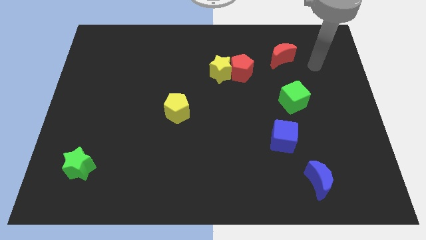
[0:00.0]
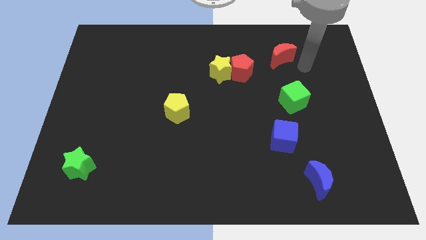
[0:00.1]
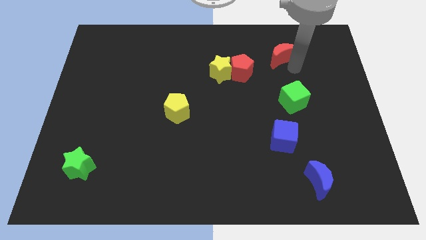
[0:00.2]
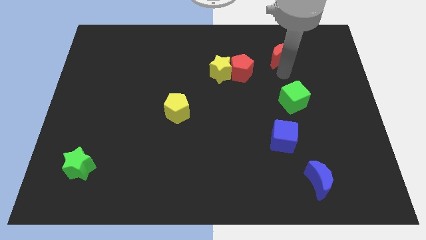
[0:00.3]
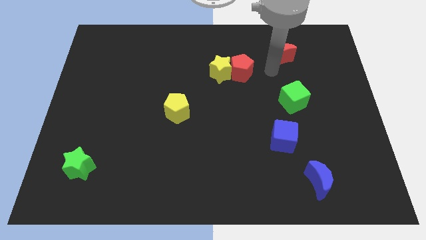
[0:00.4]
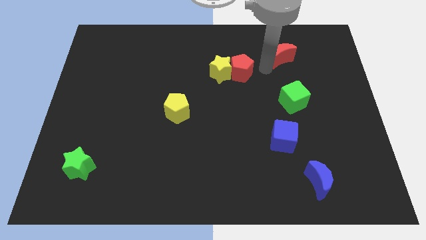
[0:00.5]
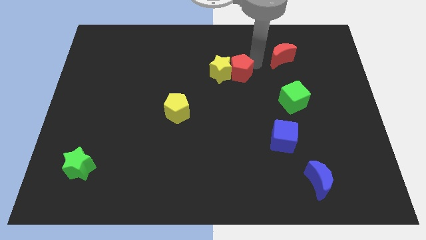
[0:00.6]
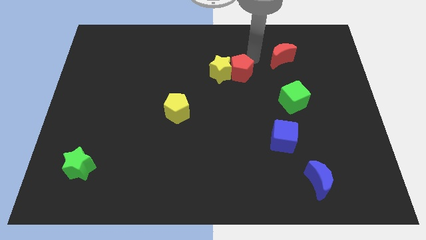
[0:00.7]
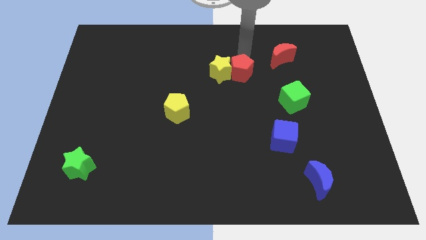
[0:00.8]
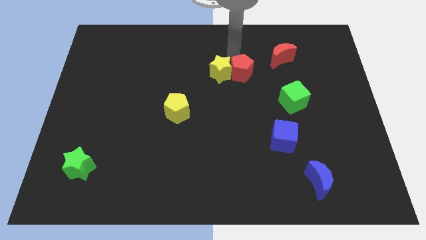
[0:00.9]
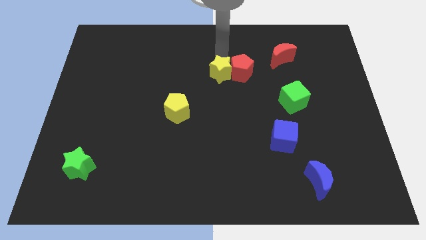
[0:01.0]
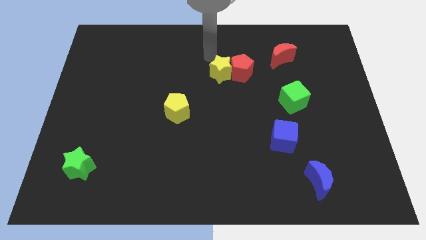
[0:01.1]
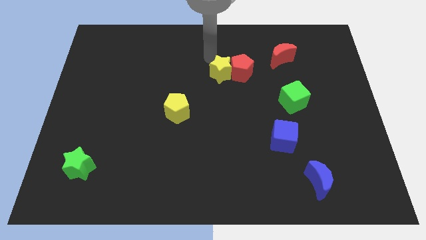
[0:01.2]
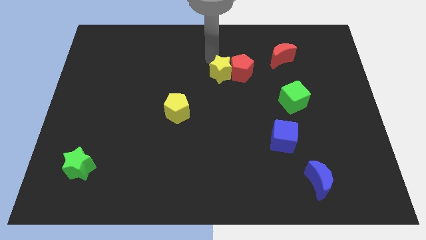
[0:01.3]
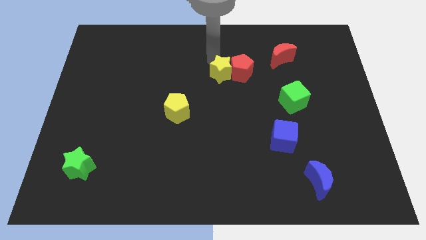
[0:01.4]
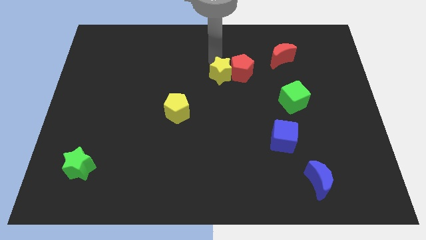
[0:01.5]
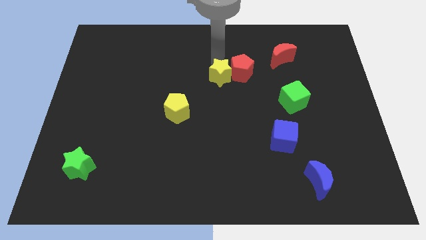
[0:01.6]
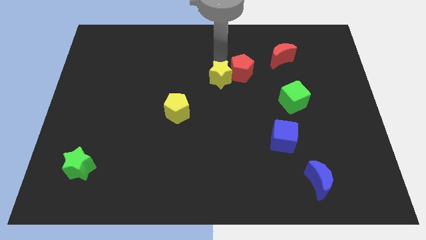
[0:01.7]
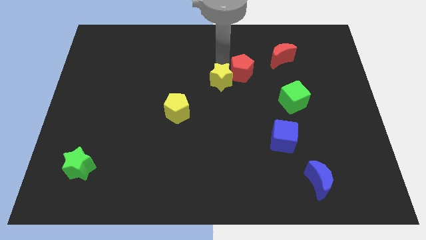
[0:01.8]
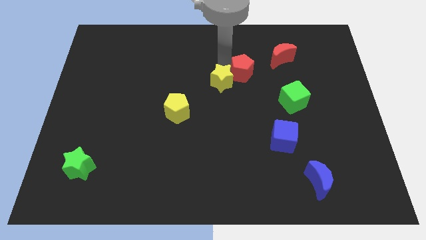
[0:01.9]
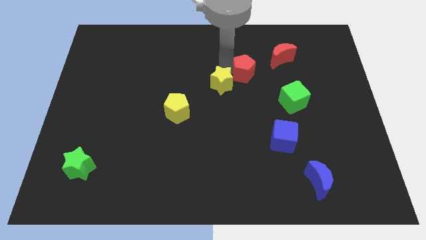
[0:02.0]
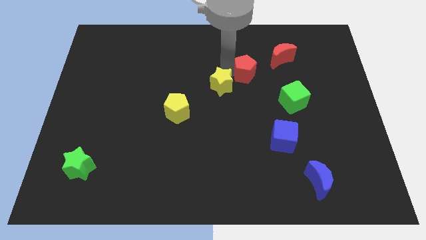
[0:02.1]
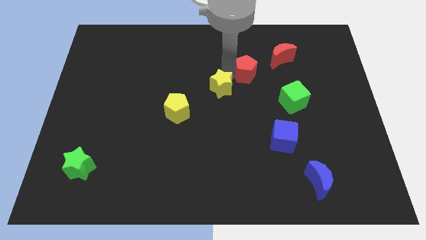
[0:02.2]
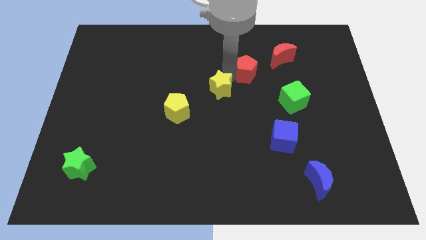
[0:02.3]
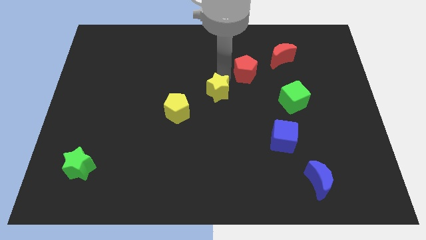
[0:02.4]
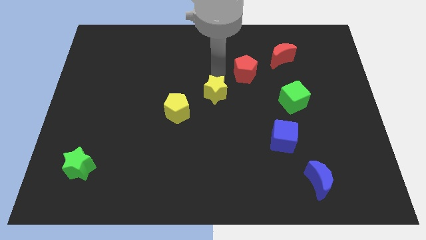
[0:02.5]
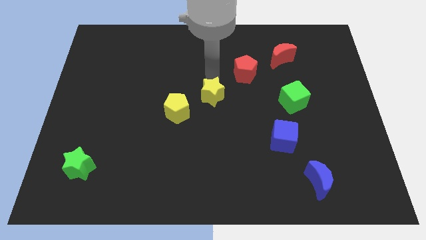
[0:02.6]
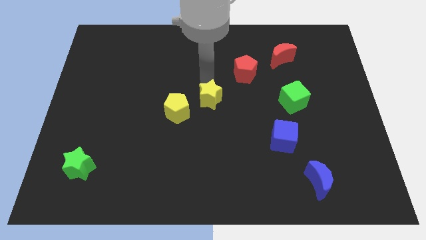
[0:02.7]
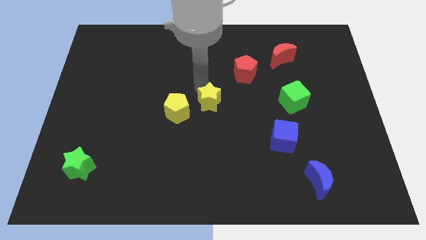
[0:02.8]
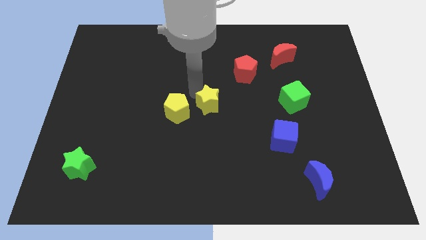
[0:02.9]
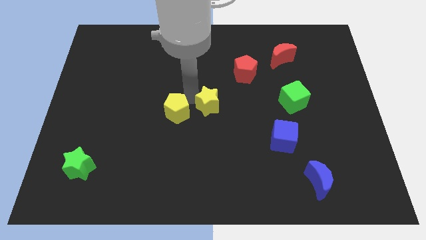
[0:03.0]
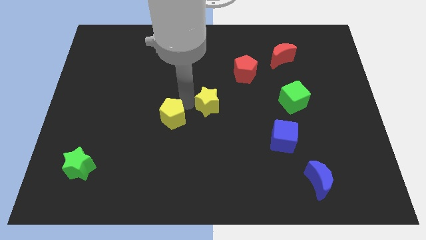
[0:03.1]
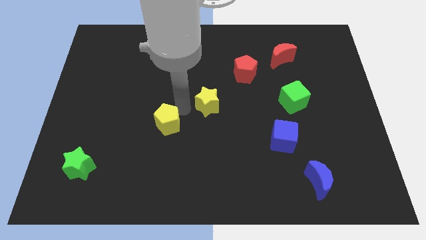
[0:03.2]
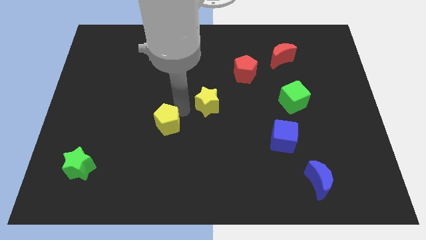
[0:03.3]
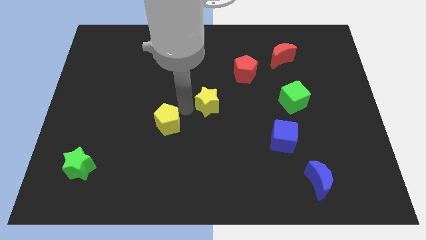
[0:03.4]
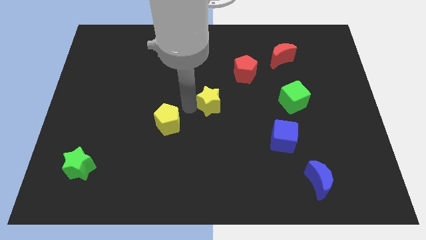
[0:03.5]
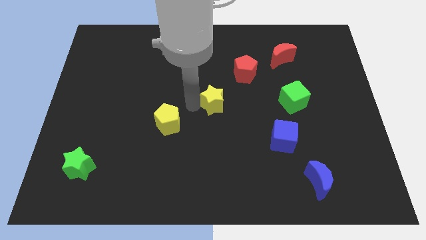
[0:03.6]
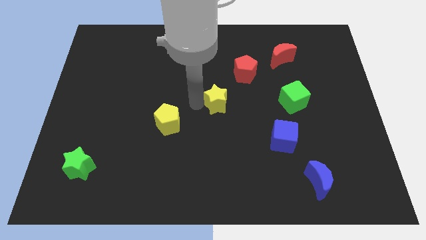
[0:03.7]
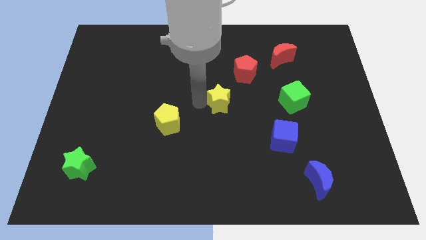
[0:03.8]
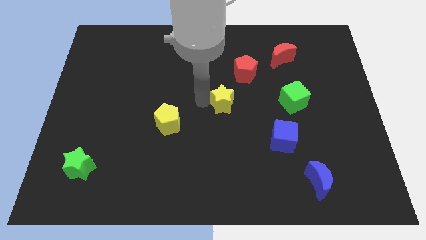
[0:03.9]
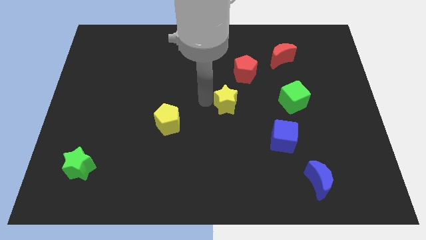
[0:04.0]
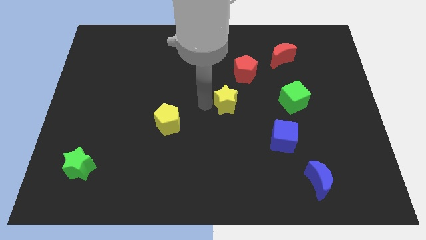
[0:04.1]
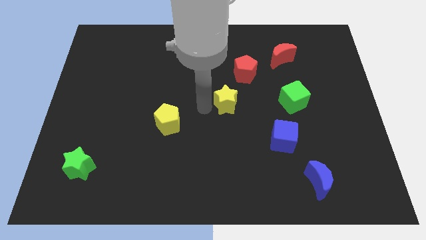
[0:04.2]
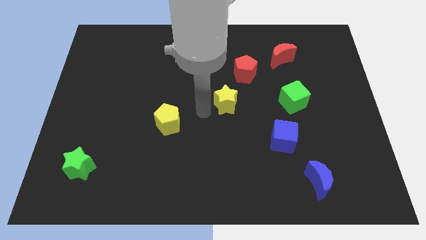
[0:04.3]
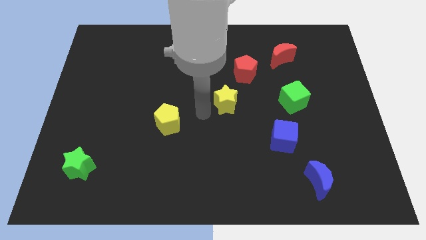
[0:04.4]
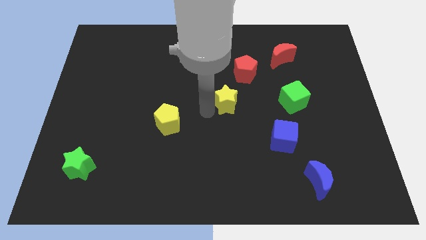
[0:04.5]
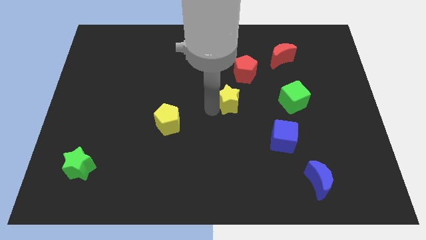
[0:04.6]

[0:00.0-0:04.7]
slightly push the yellow star diagonally downwards and right

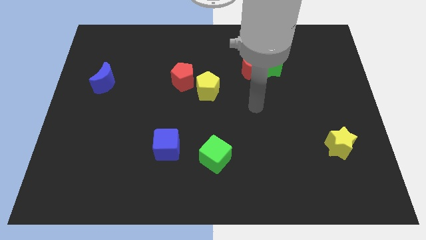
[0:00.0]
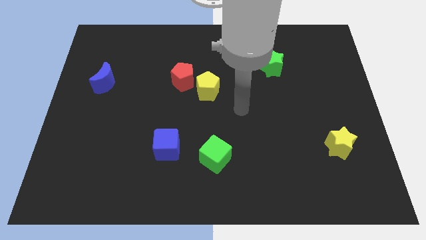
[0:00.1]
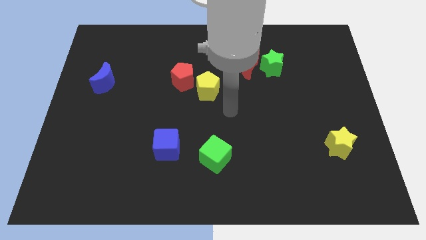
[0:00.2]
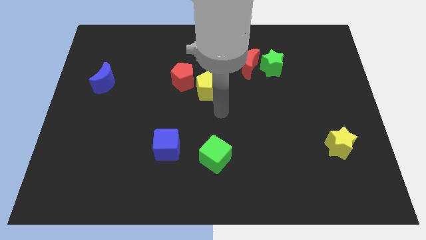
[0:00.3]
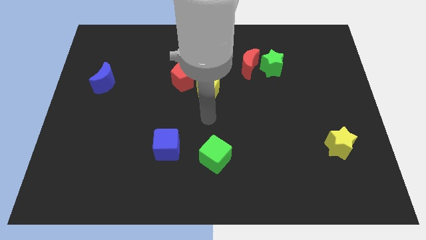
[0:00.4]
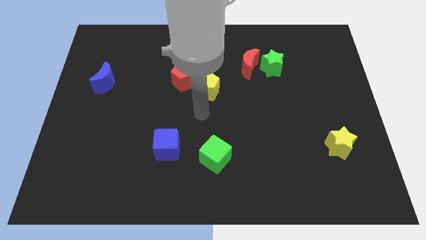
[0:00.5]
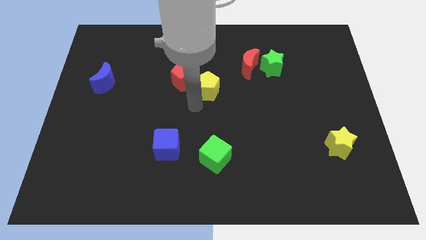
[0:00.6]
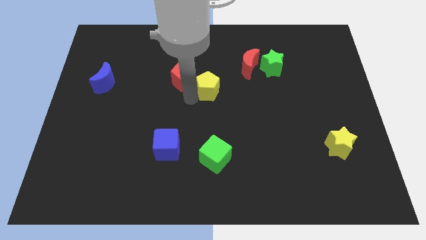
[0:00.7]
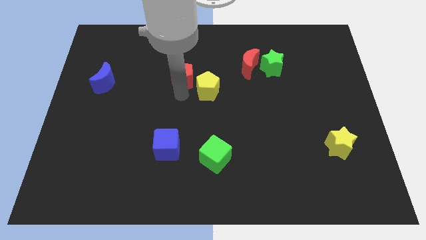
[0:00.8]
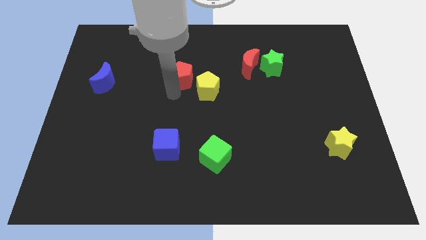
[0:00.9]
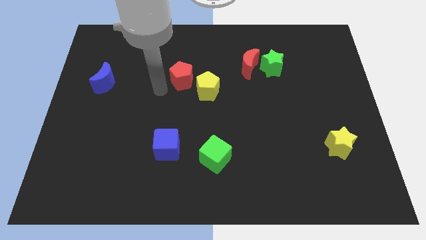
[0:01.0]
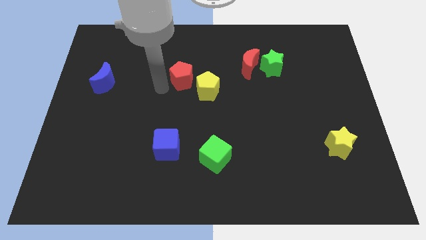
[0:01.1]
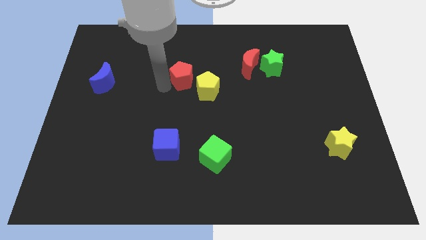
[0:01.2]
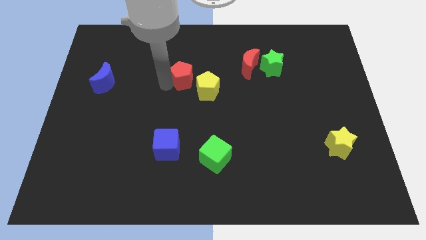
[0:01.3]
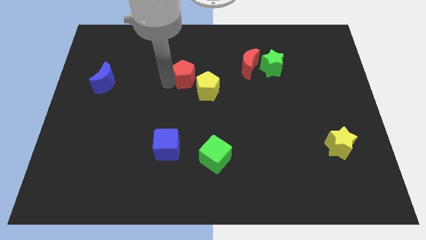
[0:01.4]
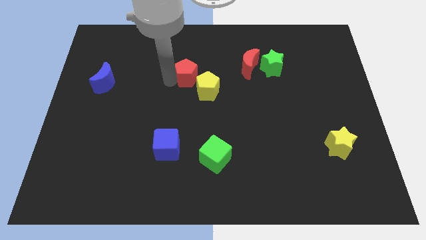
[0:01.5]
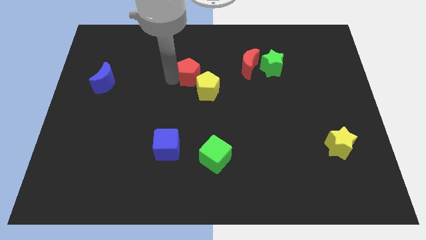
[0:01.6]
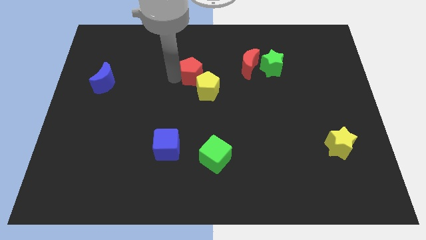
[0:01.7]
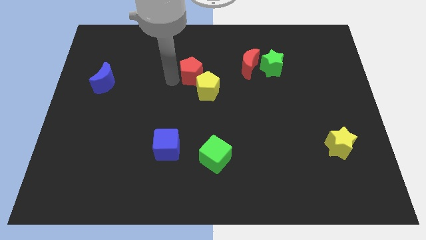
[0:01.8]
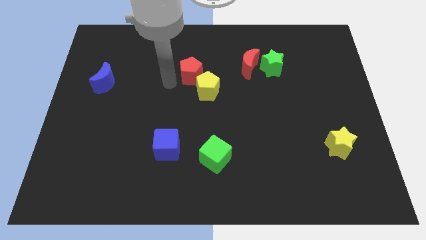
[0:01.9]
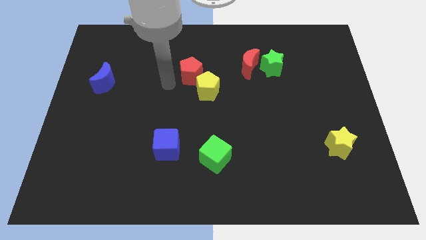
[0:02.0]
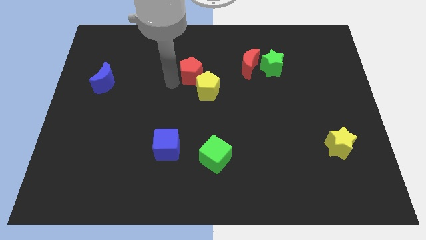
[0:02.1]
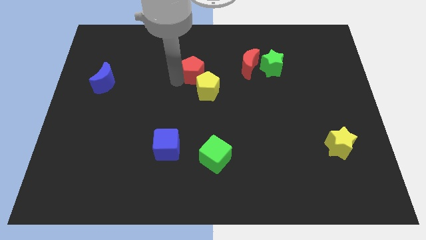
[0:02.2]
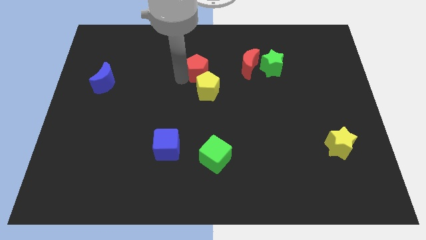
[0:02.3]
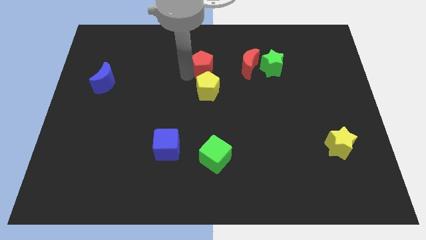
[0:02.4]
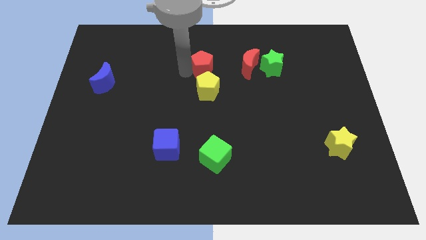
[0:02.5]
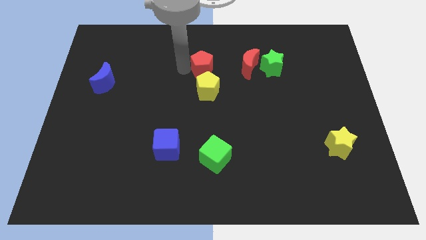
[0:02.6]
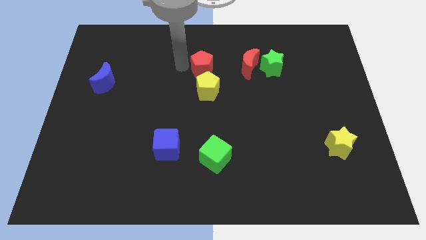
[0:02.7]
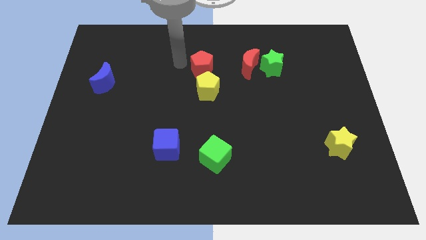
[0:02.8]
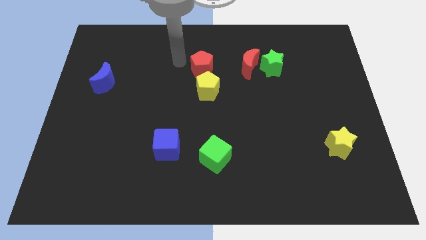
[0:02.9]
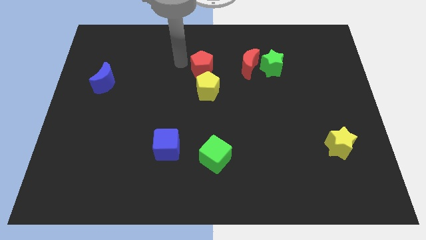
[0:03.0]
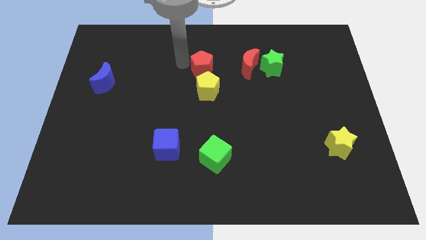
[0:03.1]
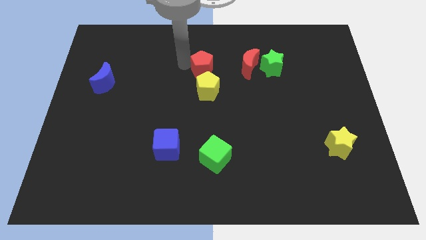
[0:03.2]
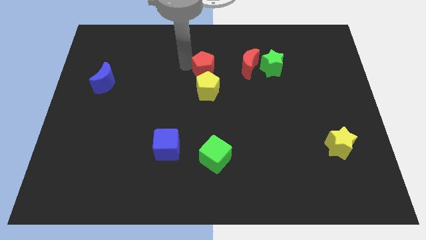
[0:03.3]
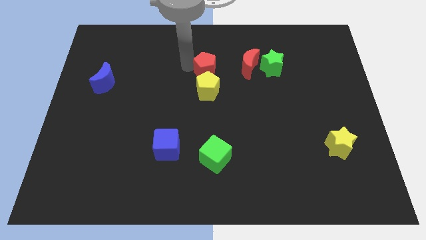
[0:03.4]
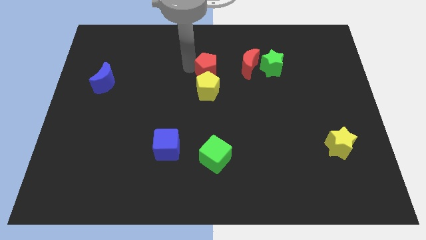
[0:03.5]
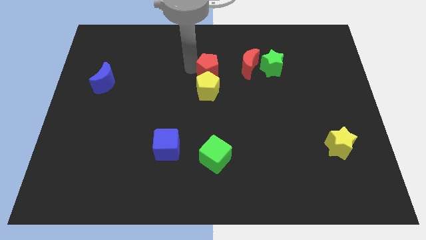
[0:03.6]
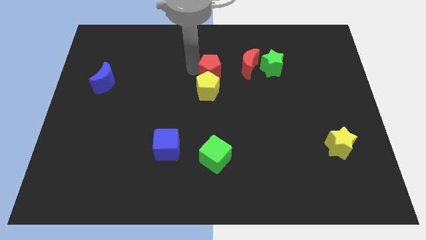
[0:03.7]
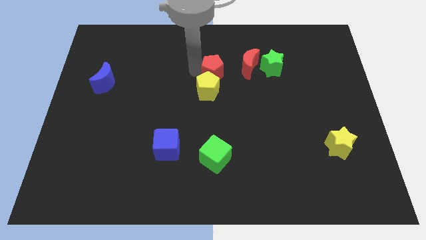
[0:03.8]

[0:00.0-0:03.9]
slightly push the red pentagon to the right
